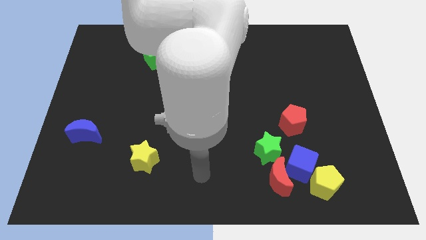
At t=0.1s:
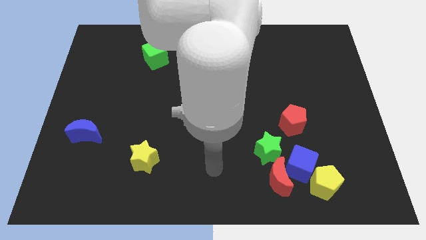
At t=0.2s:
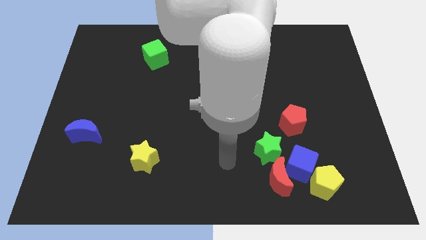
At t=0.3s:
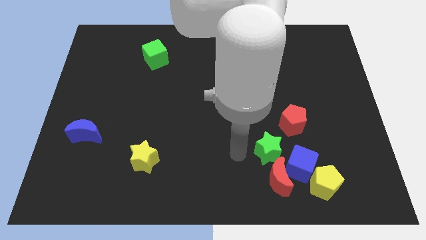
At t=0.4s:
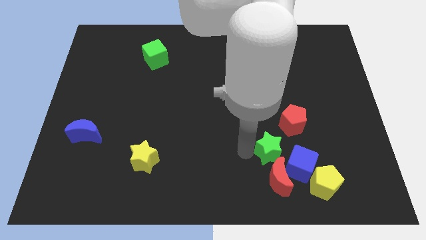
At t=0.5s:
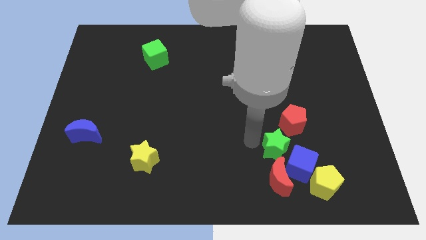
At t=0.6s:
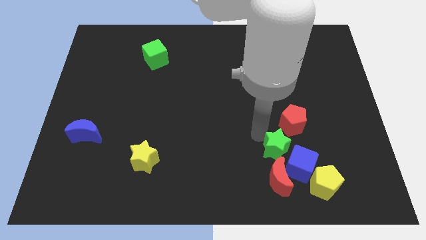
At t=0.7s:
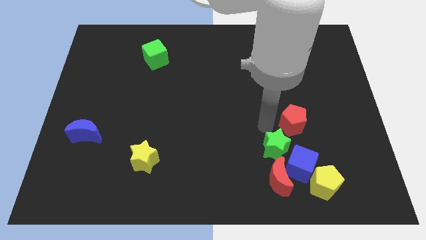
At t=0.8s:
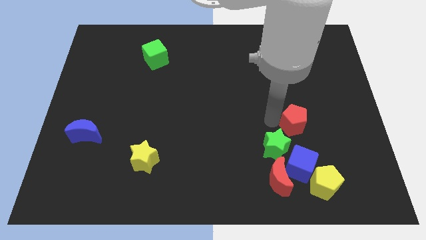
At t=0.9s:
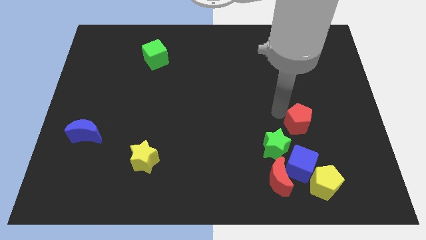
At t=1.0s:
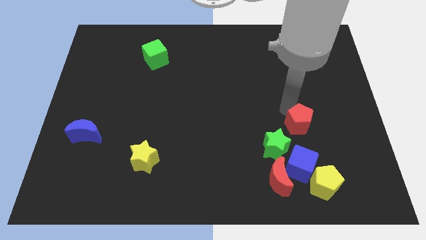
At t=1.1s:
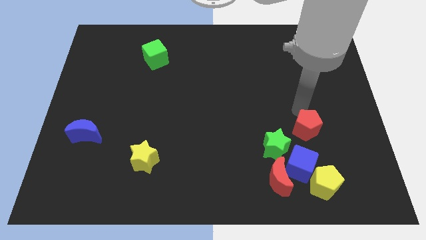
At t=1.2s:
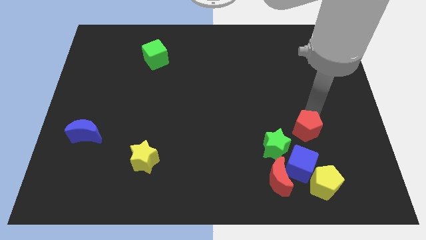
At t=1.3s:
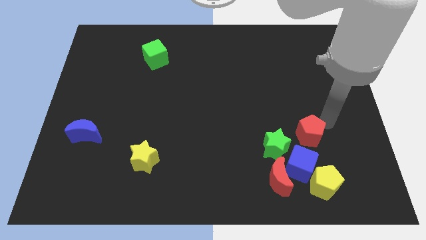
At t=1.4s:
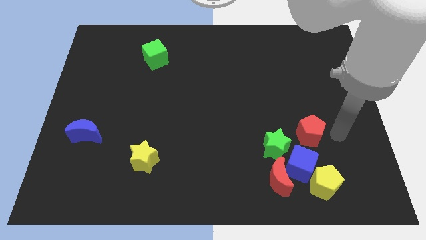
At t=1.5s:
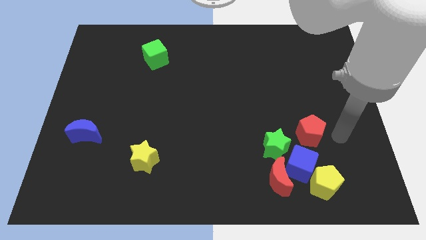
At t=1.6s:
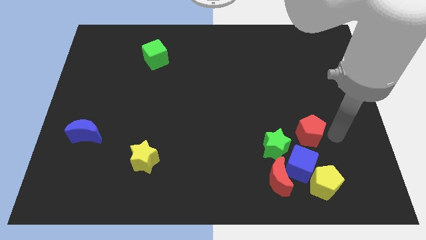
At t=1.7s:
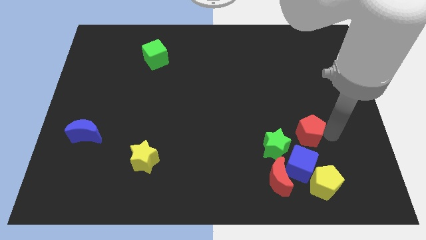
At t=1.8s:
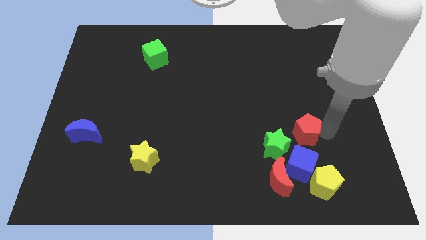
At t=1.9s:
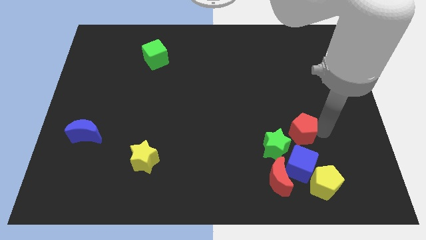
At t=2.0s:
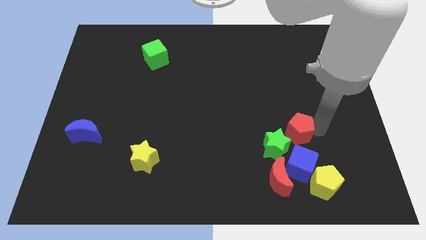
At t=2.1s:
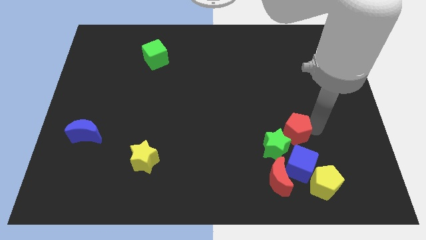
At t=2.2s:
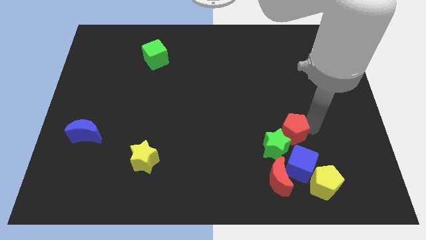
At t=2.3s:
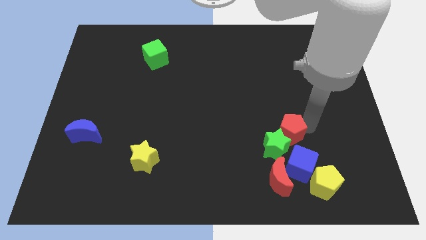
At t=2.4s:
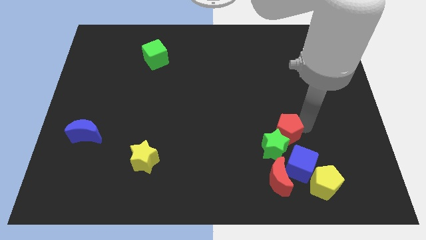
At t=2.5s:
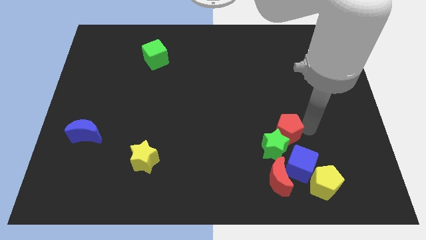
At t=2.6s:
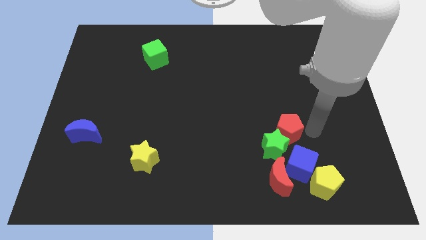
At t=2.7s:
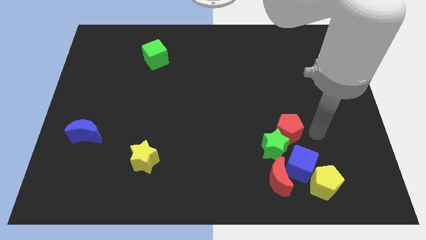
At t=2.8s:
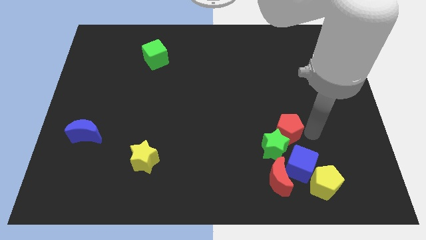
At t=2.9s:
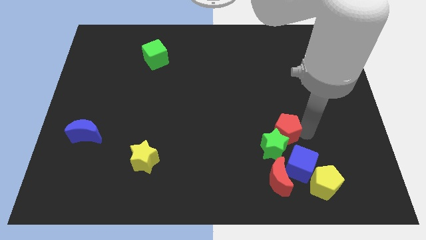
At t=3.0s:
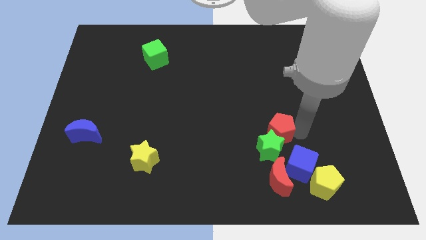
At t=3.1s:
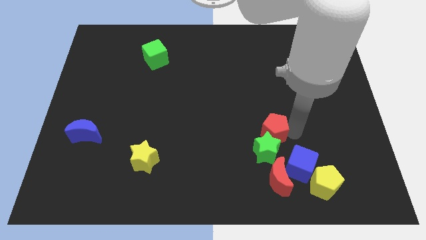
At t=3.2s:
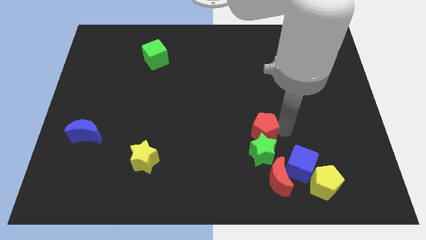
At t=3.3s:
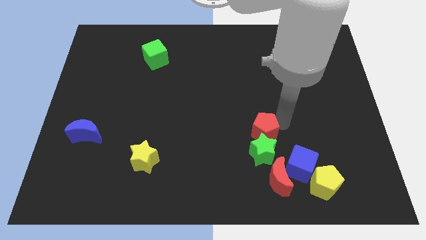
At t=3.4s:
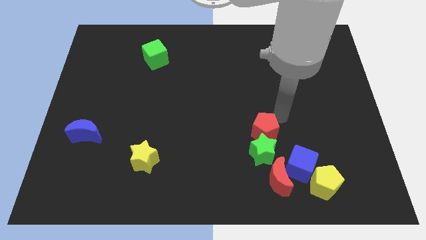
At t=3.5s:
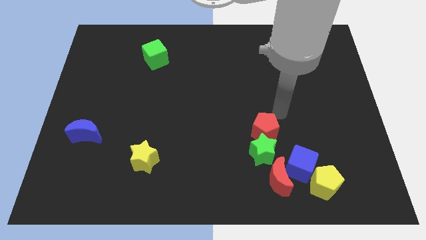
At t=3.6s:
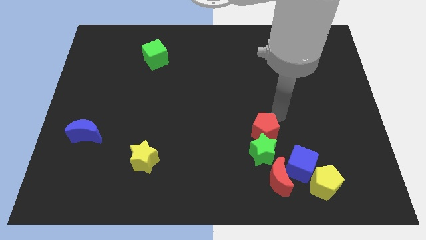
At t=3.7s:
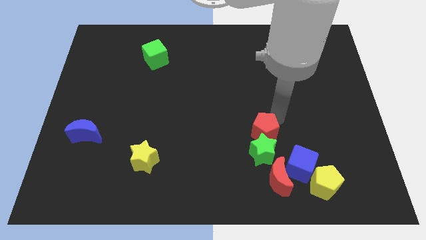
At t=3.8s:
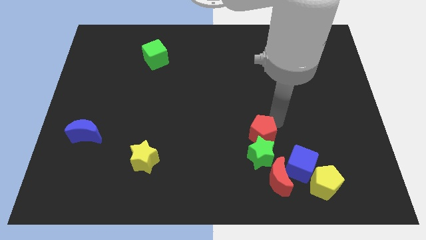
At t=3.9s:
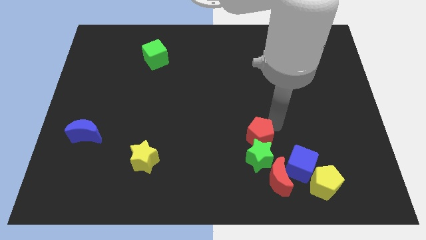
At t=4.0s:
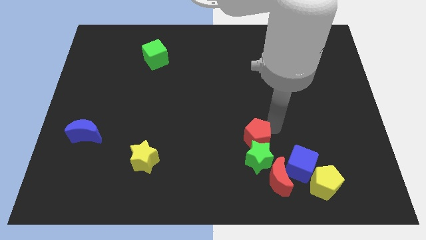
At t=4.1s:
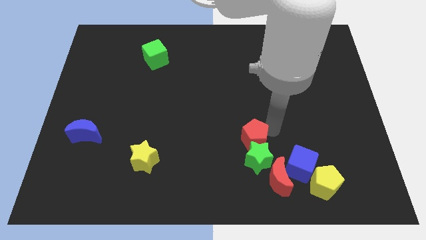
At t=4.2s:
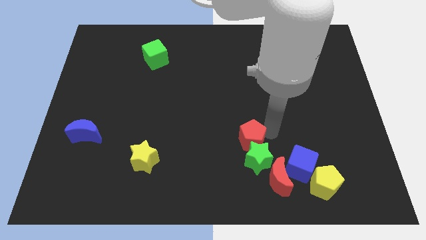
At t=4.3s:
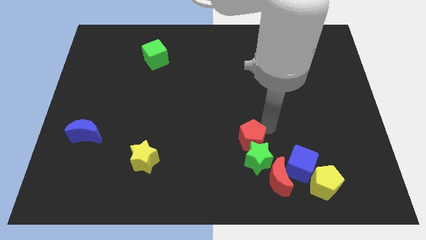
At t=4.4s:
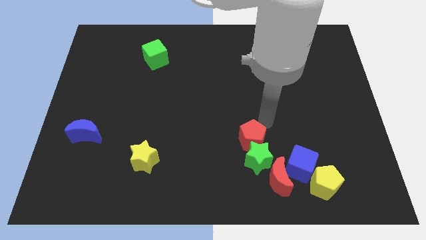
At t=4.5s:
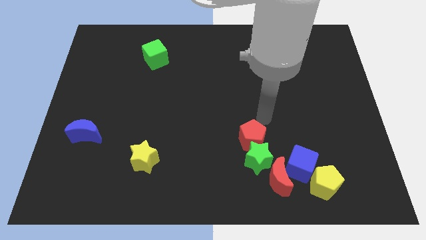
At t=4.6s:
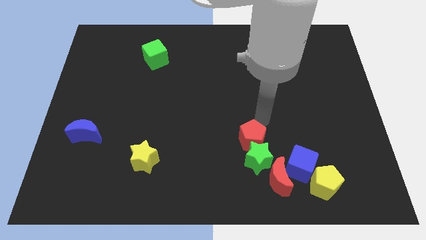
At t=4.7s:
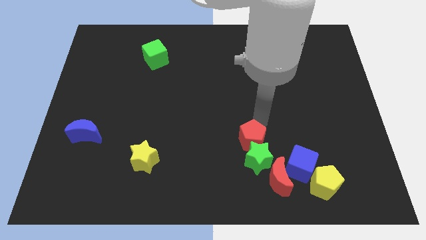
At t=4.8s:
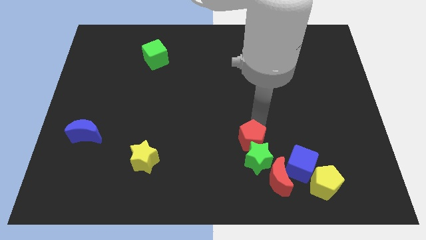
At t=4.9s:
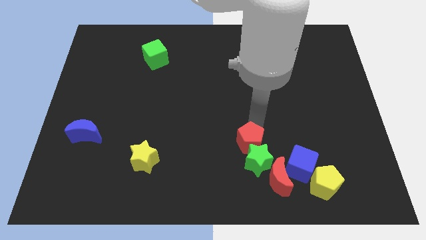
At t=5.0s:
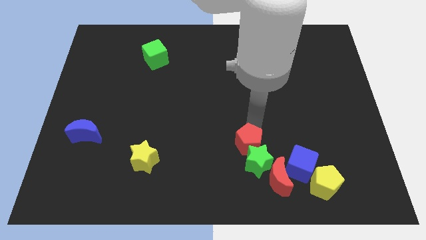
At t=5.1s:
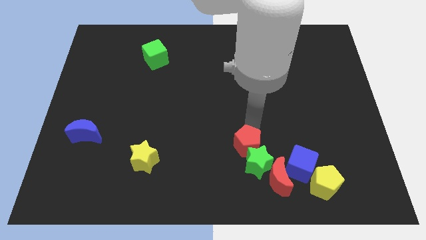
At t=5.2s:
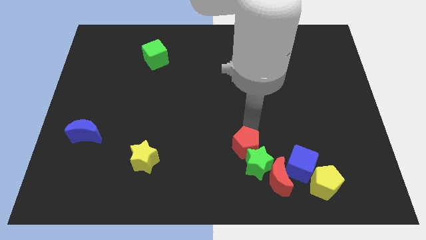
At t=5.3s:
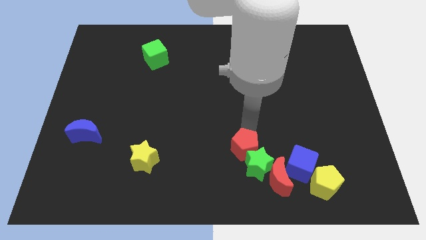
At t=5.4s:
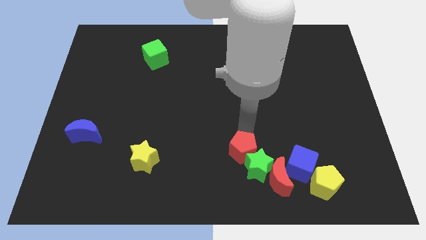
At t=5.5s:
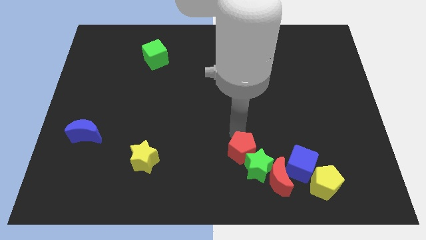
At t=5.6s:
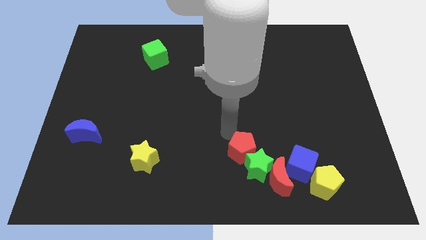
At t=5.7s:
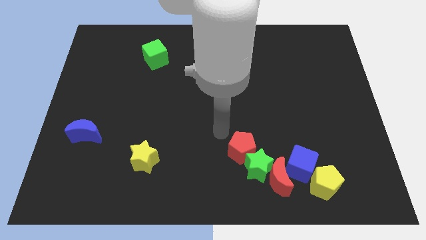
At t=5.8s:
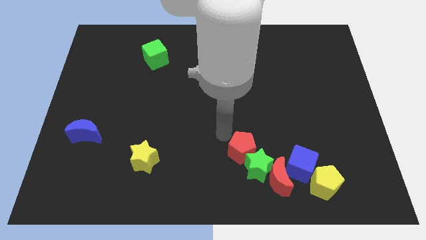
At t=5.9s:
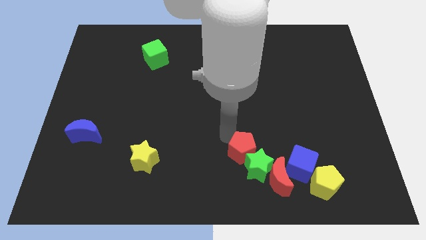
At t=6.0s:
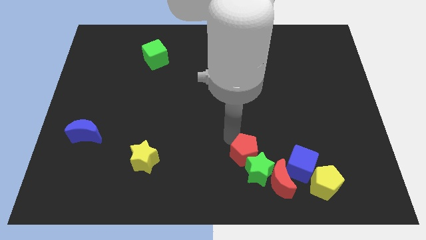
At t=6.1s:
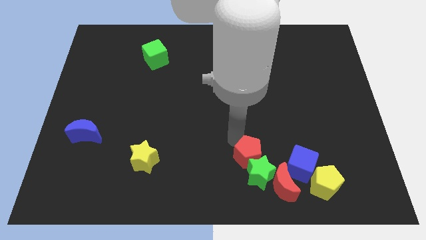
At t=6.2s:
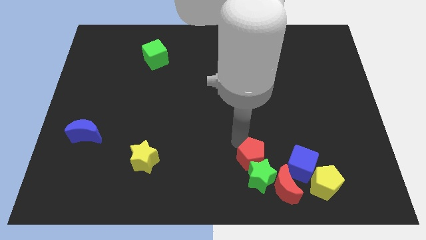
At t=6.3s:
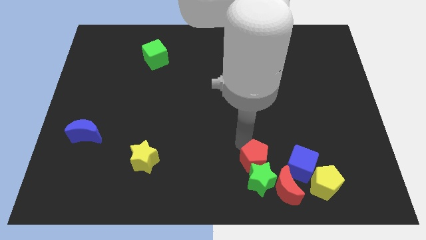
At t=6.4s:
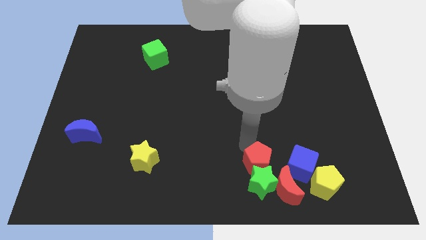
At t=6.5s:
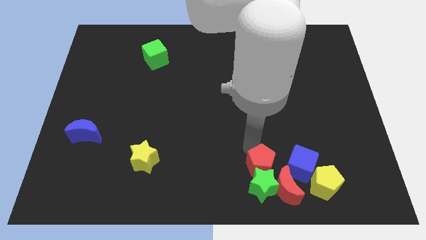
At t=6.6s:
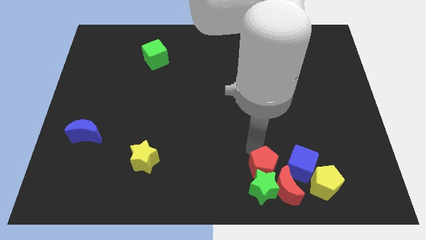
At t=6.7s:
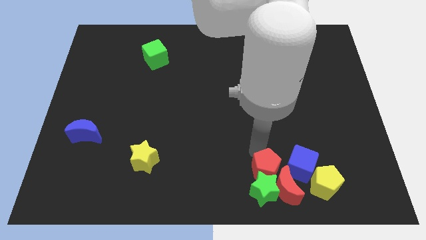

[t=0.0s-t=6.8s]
slide the red pentagon next to the red moon

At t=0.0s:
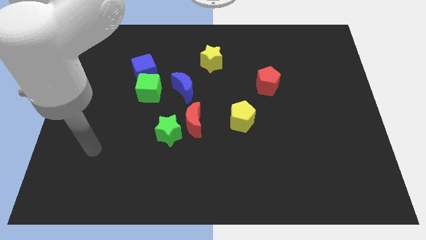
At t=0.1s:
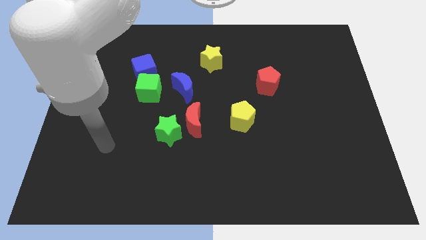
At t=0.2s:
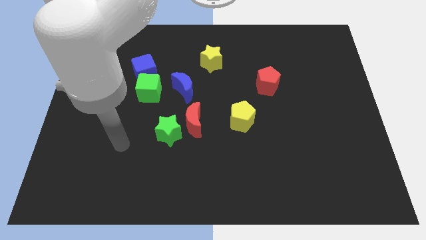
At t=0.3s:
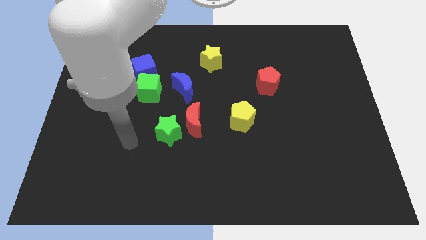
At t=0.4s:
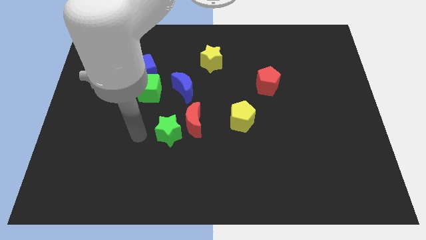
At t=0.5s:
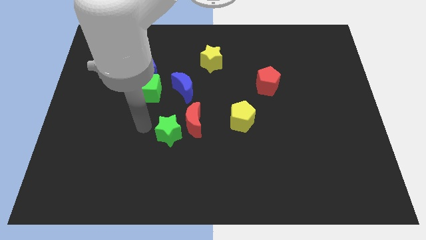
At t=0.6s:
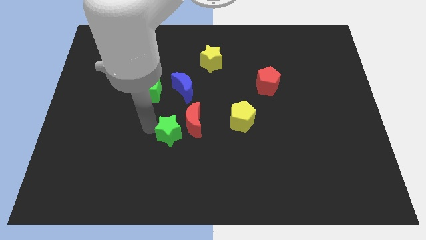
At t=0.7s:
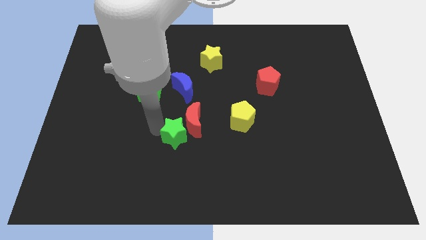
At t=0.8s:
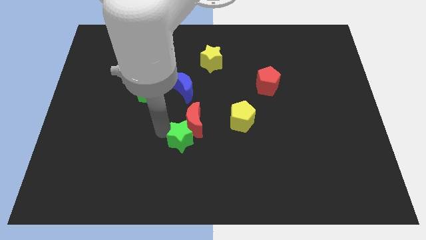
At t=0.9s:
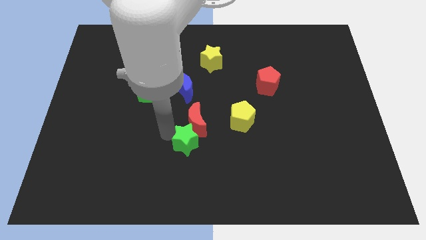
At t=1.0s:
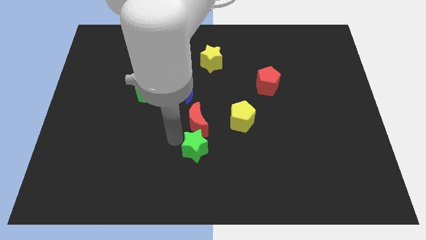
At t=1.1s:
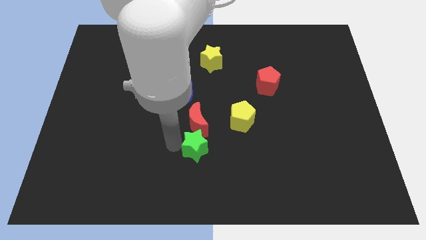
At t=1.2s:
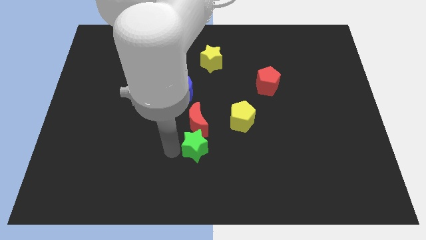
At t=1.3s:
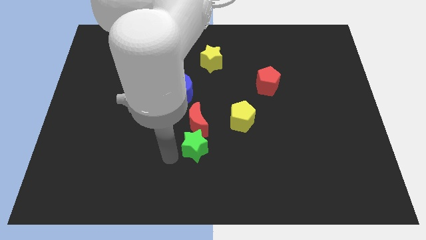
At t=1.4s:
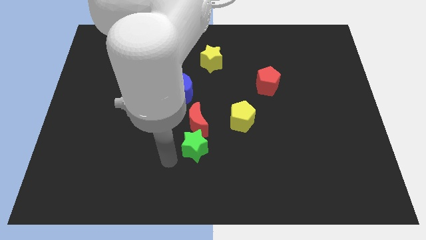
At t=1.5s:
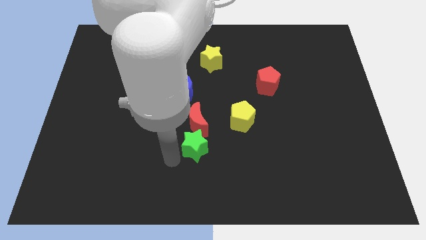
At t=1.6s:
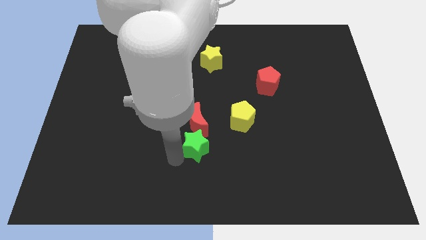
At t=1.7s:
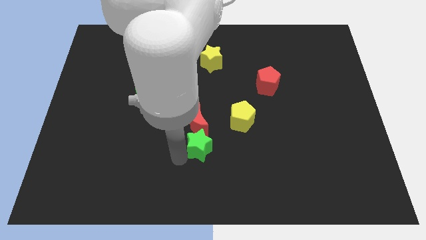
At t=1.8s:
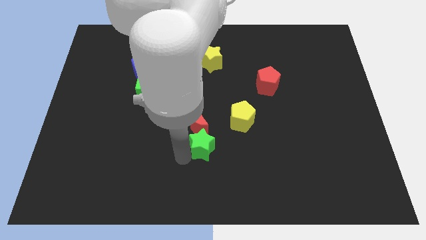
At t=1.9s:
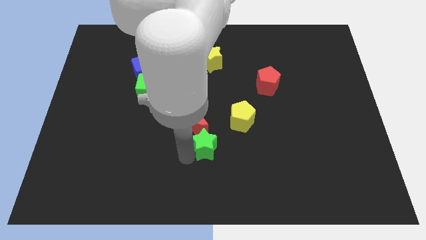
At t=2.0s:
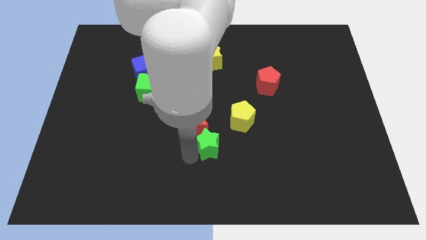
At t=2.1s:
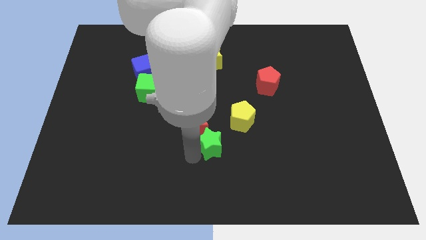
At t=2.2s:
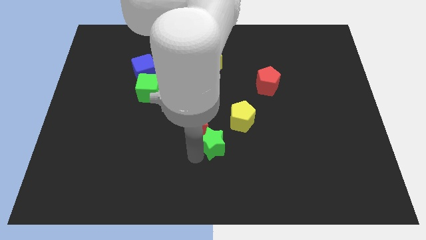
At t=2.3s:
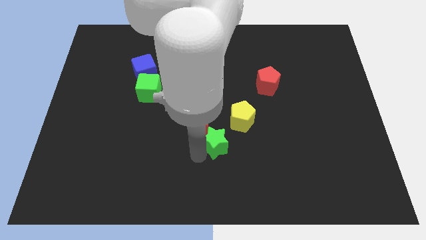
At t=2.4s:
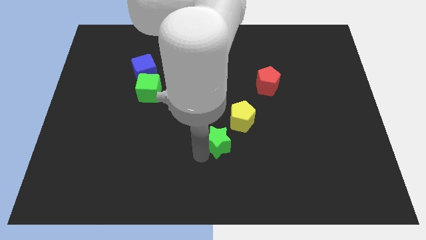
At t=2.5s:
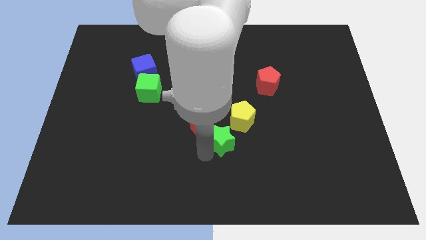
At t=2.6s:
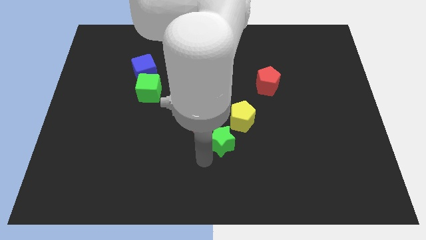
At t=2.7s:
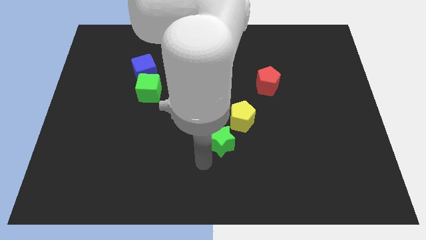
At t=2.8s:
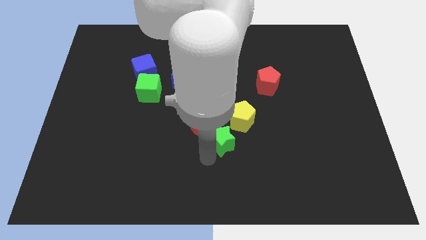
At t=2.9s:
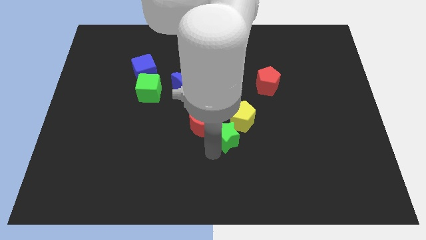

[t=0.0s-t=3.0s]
move the green star towards the yellow pentagon
